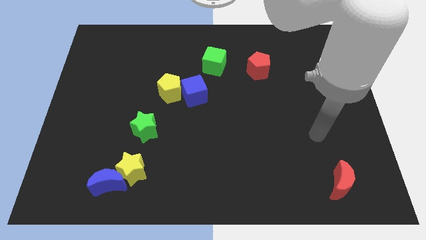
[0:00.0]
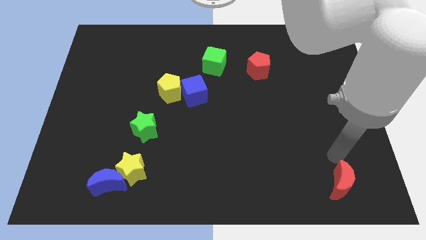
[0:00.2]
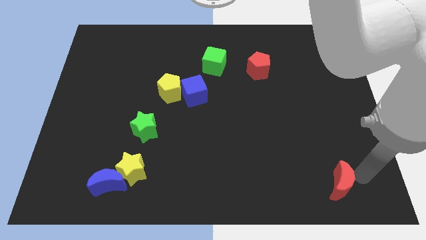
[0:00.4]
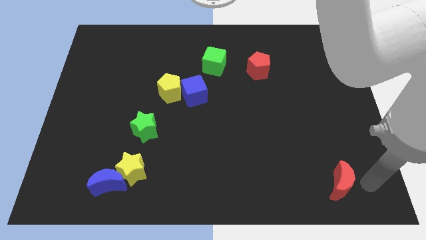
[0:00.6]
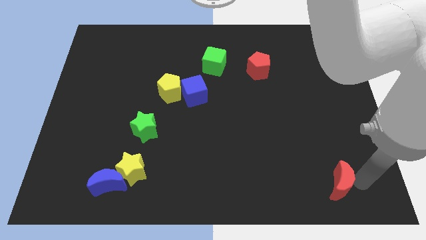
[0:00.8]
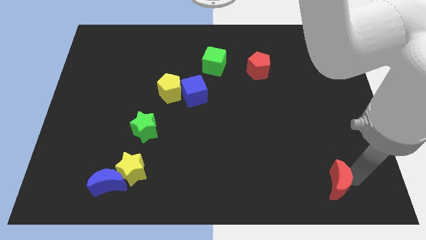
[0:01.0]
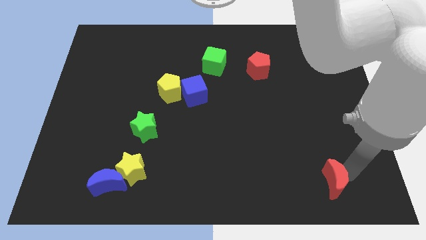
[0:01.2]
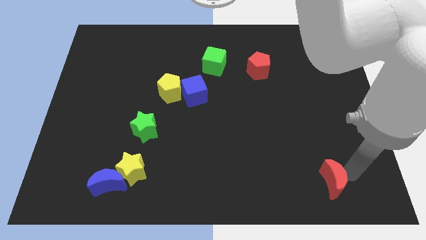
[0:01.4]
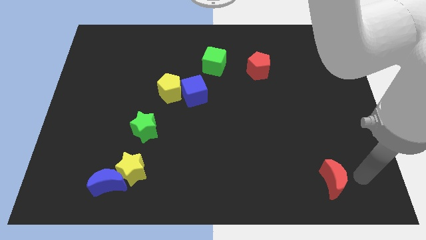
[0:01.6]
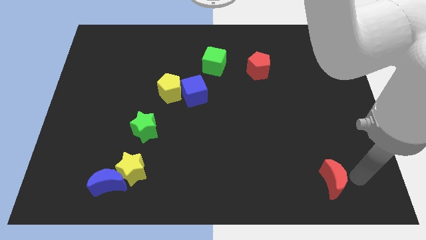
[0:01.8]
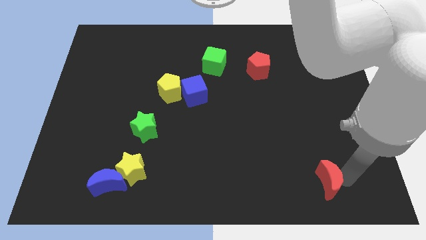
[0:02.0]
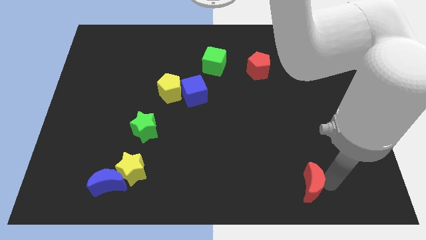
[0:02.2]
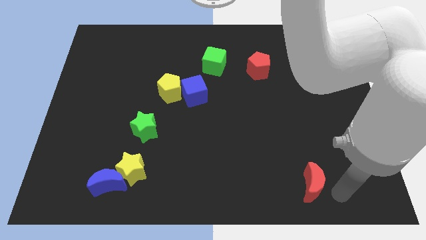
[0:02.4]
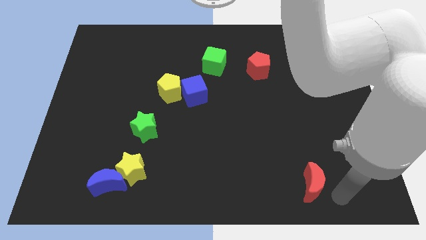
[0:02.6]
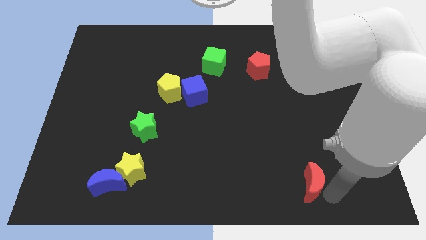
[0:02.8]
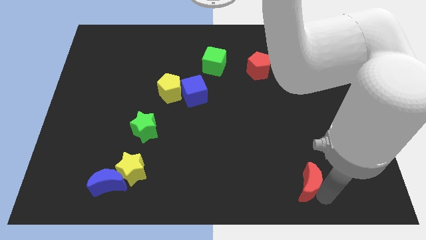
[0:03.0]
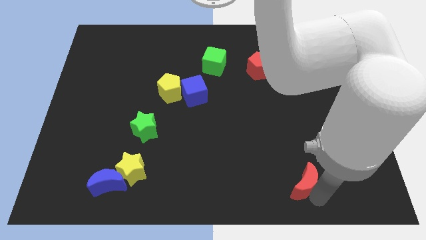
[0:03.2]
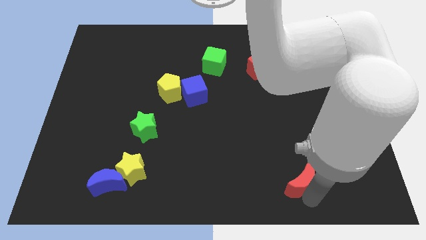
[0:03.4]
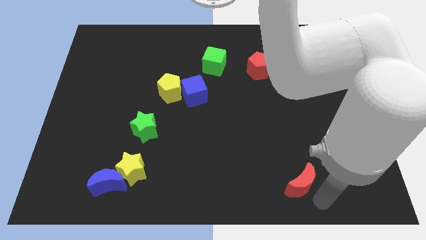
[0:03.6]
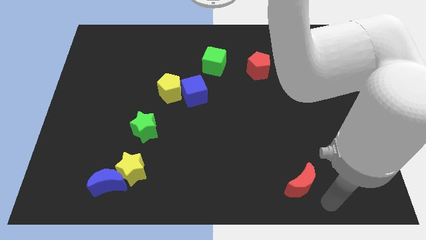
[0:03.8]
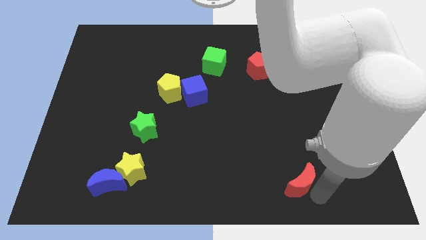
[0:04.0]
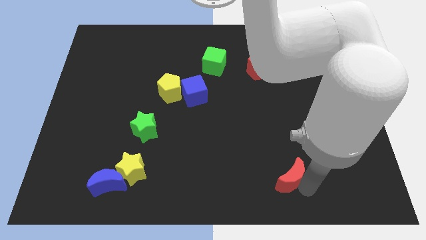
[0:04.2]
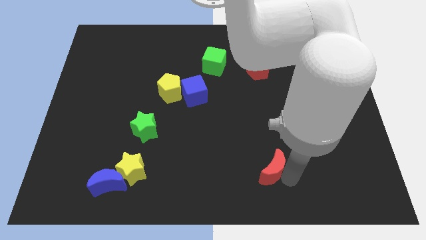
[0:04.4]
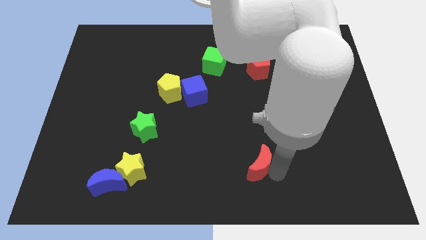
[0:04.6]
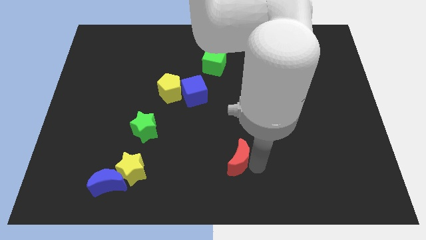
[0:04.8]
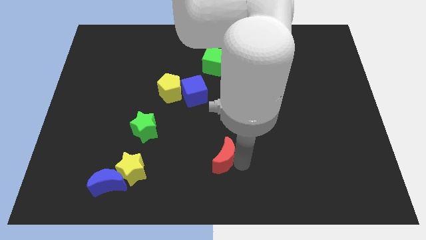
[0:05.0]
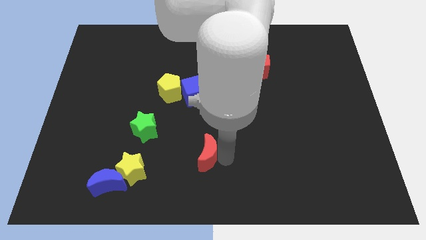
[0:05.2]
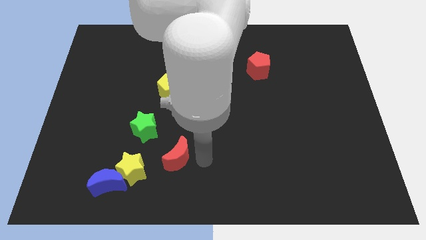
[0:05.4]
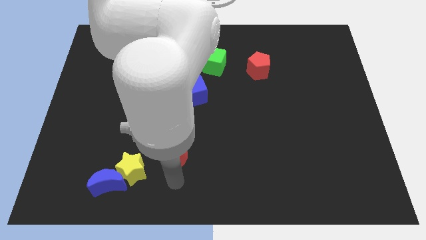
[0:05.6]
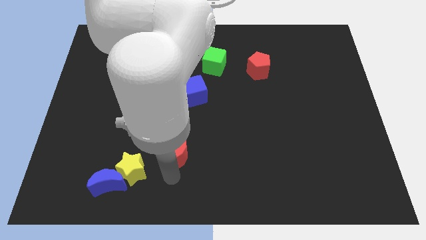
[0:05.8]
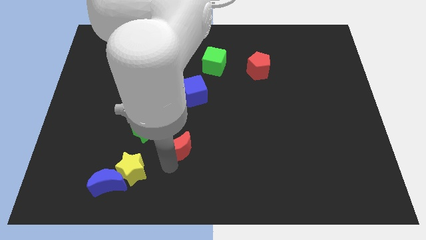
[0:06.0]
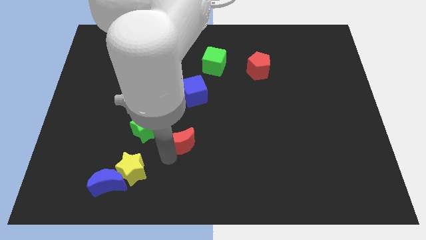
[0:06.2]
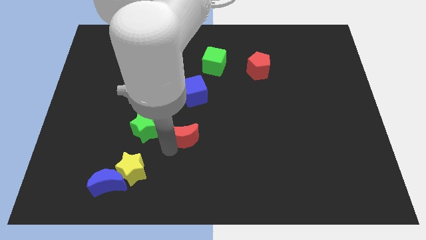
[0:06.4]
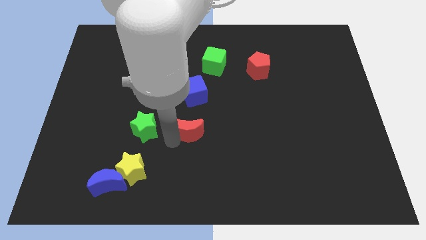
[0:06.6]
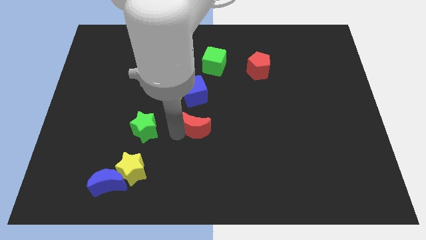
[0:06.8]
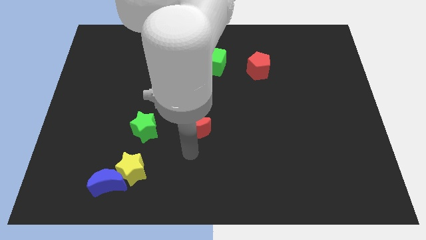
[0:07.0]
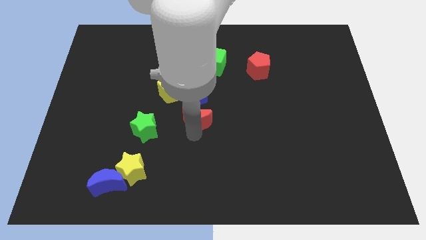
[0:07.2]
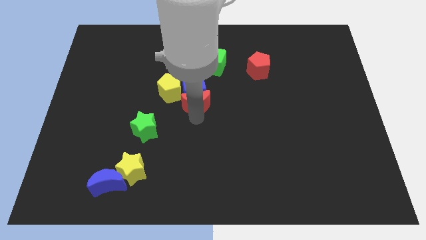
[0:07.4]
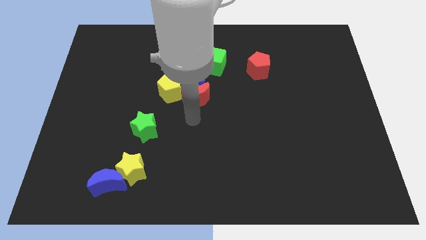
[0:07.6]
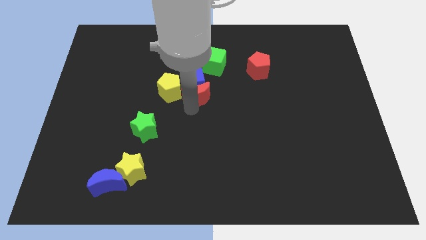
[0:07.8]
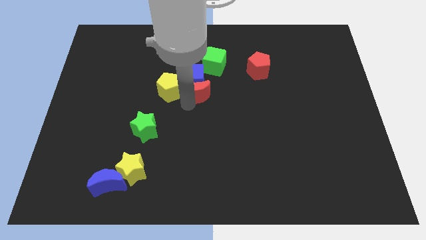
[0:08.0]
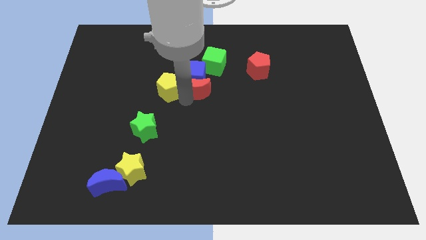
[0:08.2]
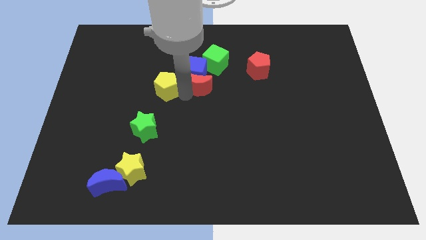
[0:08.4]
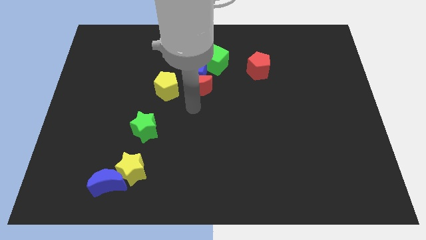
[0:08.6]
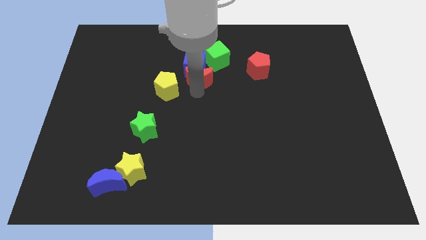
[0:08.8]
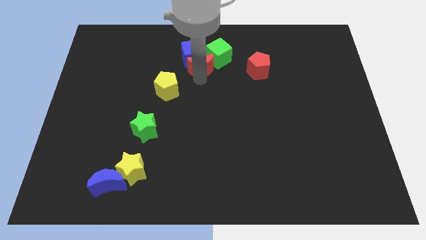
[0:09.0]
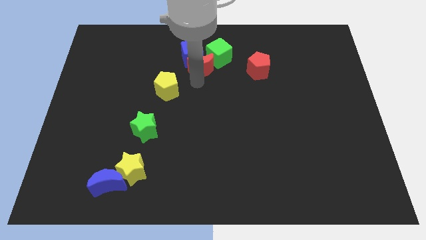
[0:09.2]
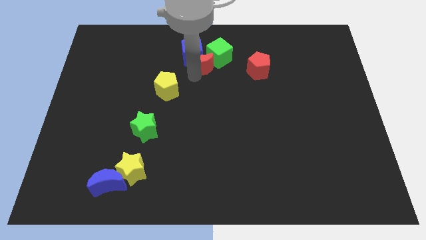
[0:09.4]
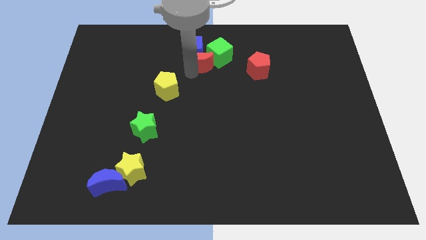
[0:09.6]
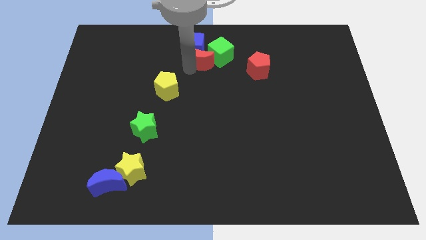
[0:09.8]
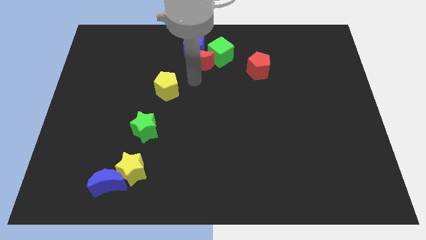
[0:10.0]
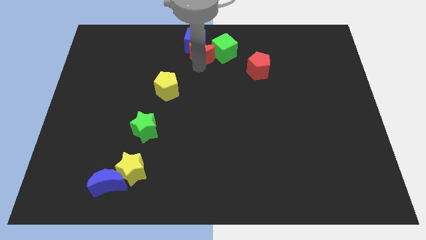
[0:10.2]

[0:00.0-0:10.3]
move the red moon to the towards your base

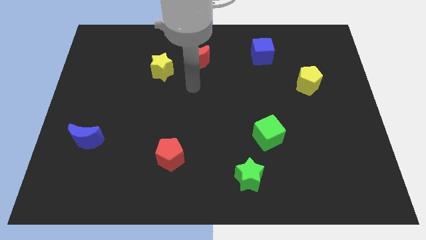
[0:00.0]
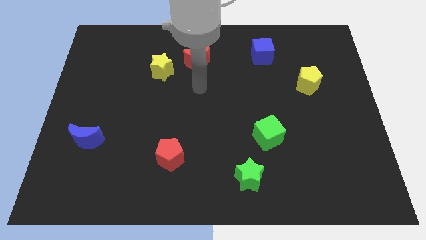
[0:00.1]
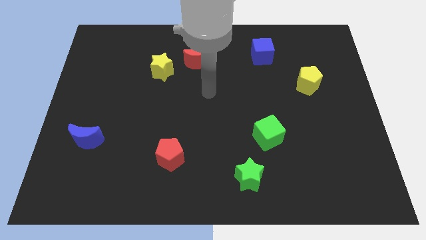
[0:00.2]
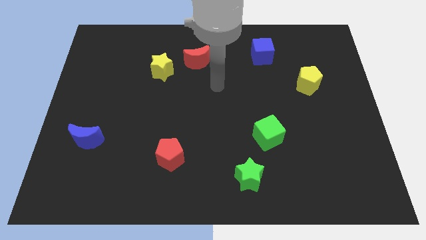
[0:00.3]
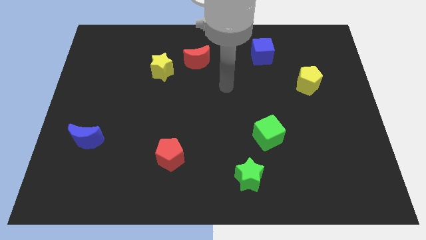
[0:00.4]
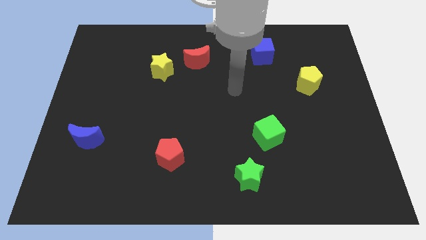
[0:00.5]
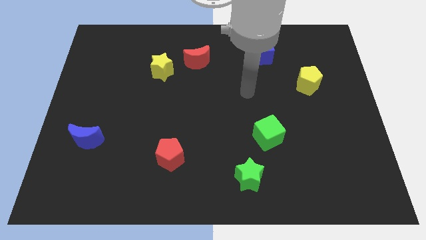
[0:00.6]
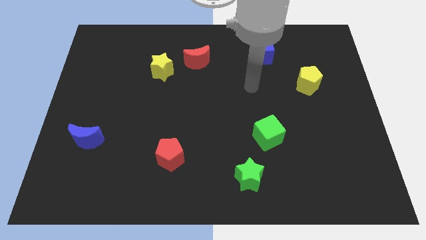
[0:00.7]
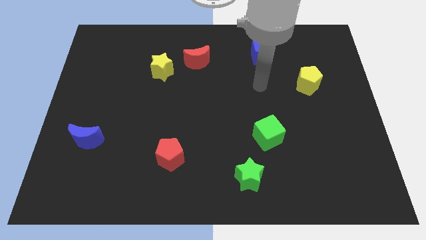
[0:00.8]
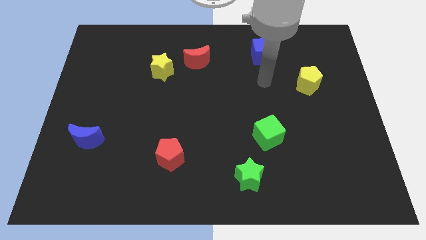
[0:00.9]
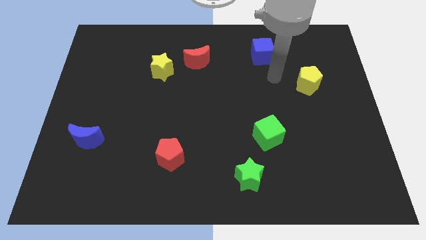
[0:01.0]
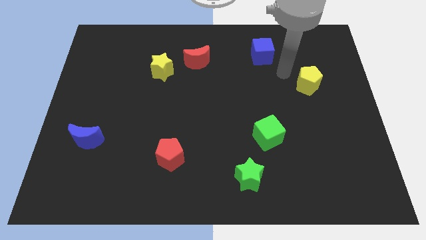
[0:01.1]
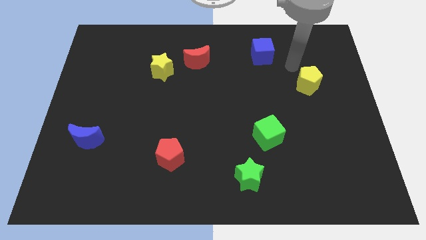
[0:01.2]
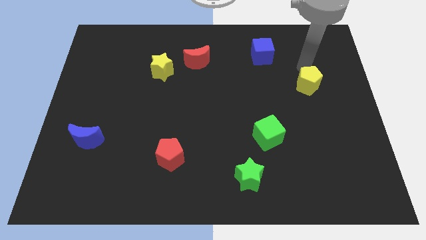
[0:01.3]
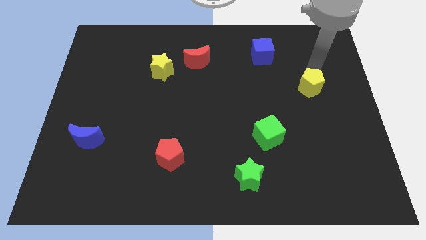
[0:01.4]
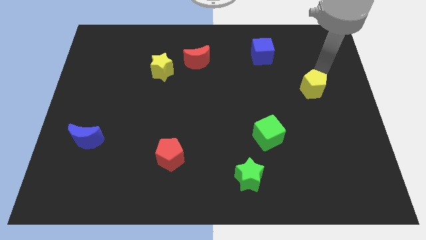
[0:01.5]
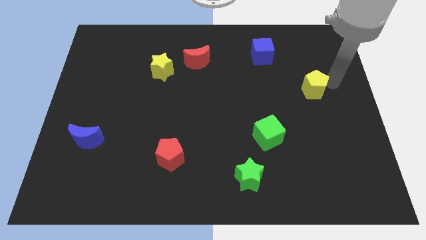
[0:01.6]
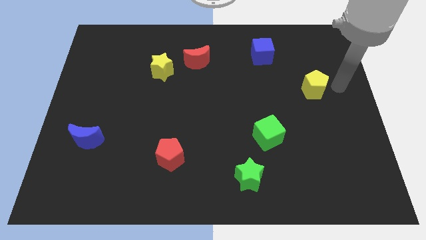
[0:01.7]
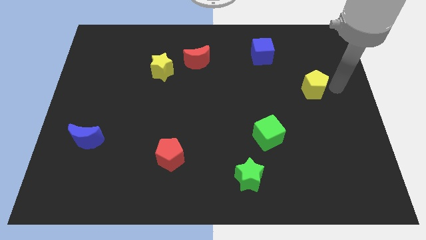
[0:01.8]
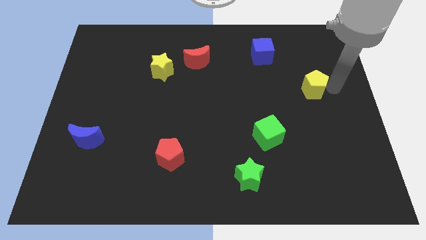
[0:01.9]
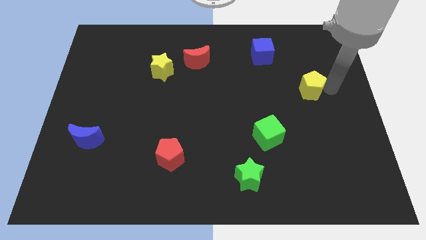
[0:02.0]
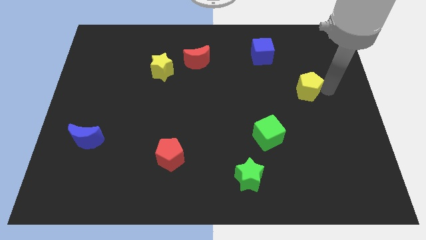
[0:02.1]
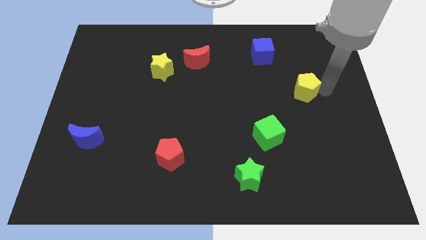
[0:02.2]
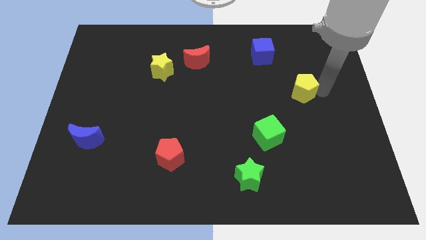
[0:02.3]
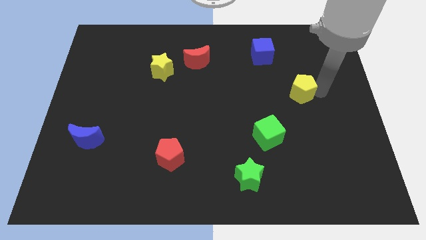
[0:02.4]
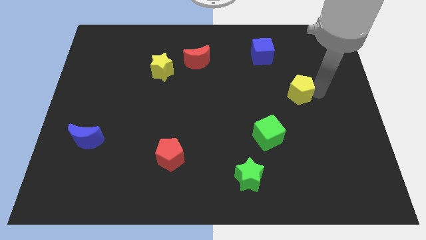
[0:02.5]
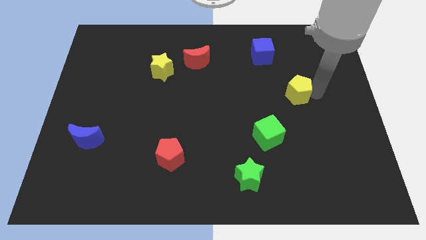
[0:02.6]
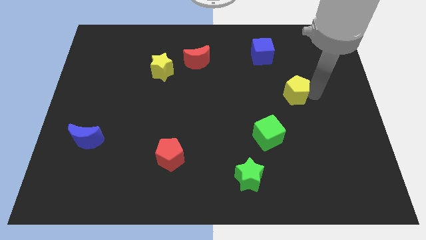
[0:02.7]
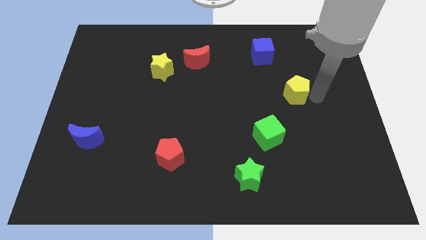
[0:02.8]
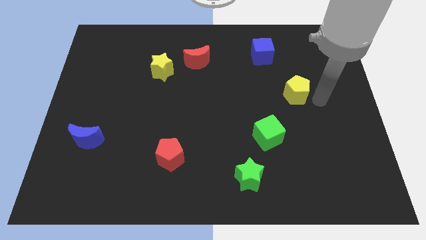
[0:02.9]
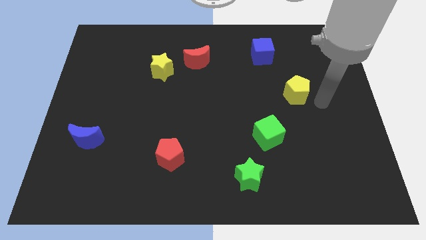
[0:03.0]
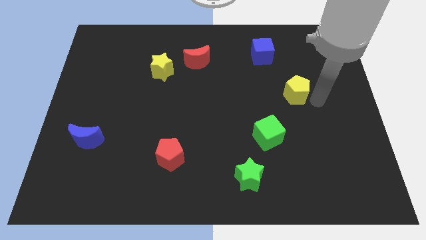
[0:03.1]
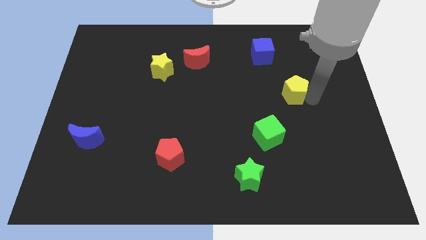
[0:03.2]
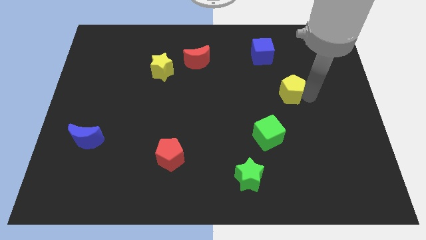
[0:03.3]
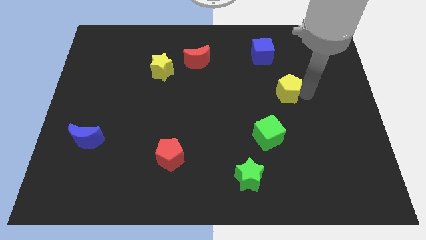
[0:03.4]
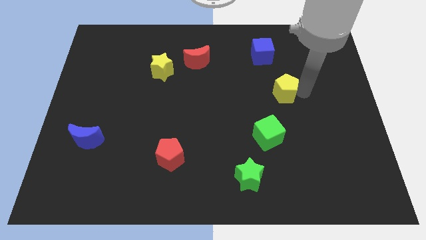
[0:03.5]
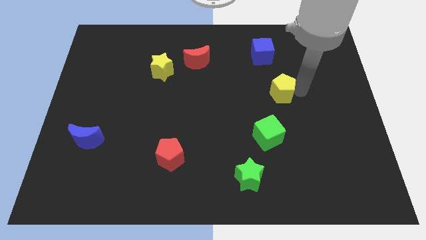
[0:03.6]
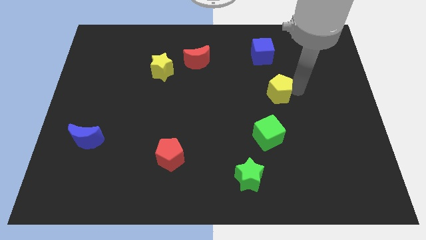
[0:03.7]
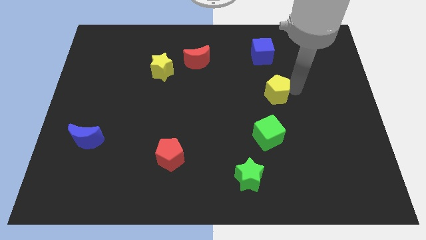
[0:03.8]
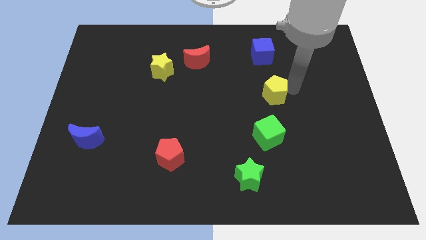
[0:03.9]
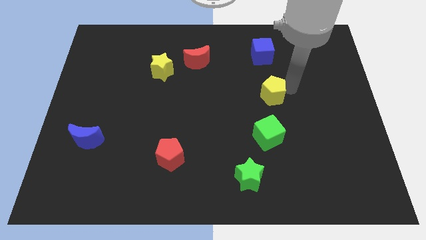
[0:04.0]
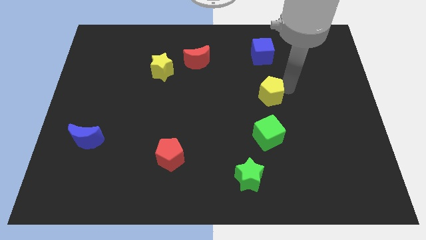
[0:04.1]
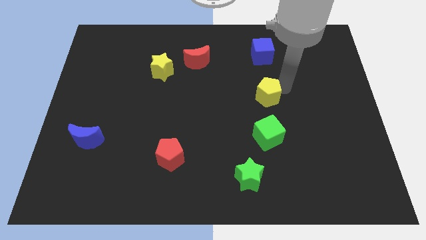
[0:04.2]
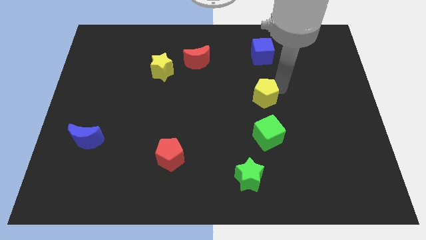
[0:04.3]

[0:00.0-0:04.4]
slide the yellow pentagon to the center of the board
